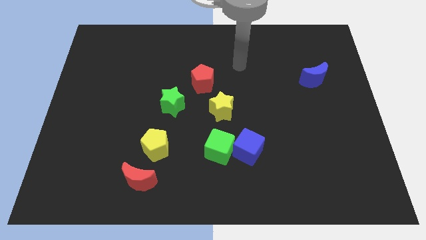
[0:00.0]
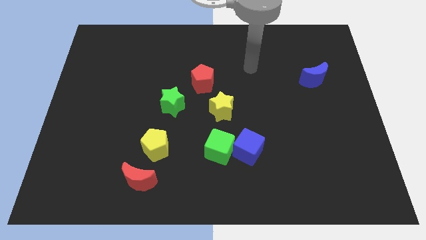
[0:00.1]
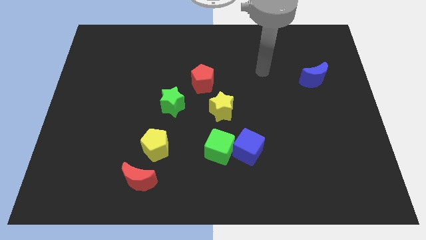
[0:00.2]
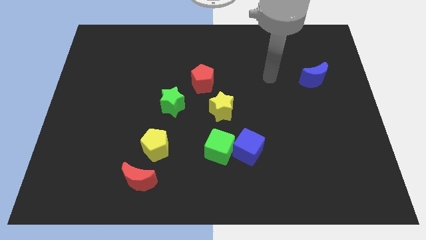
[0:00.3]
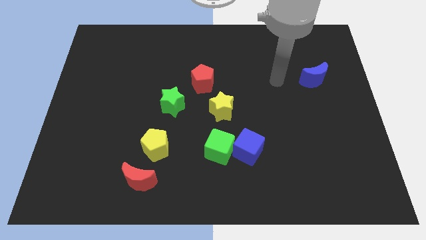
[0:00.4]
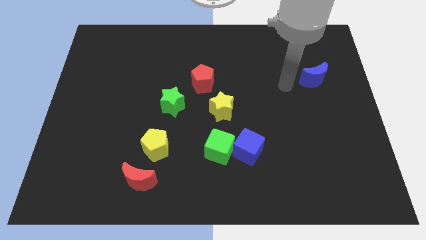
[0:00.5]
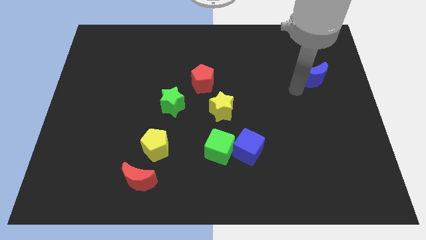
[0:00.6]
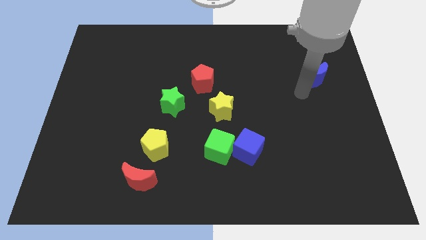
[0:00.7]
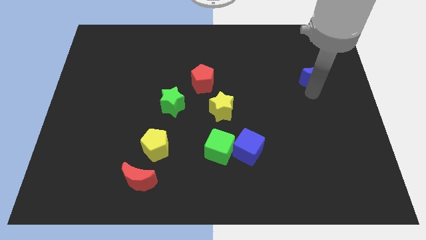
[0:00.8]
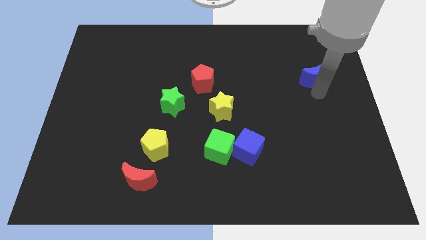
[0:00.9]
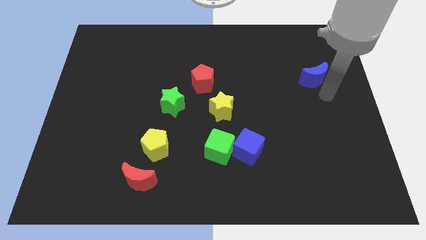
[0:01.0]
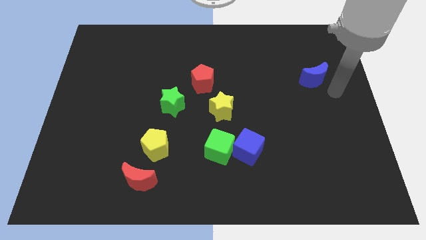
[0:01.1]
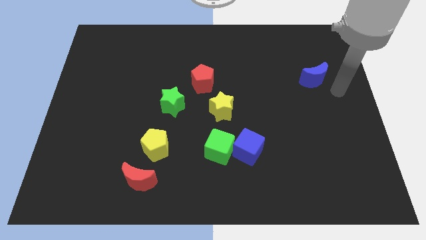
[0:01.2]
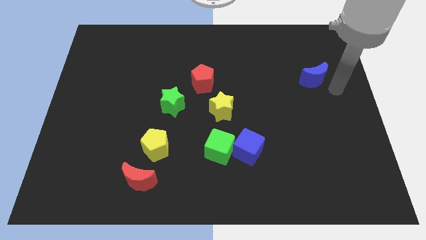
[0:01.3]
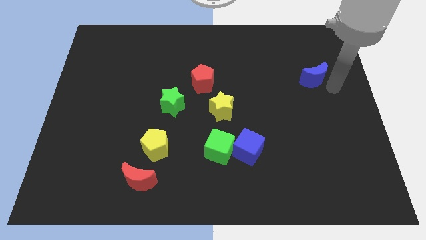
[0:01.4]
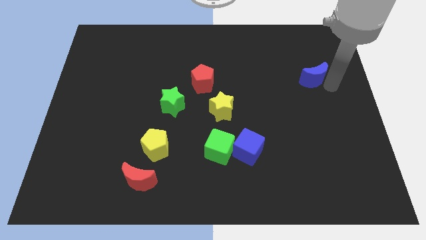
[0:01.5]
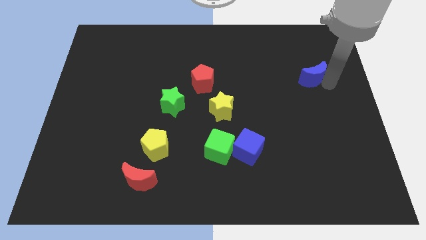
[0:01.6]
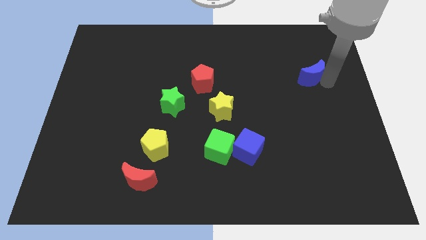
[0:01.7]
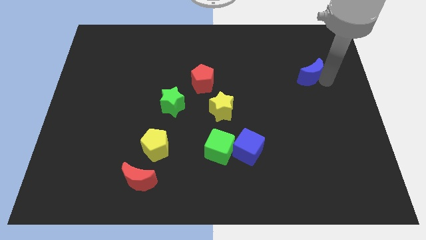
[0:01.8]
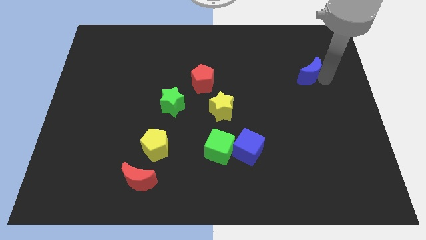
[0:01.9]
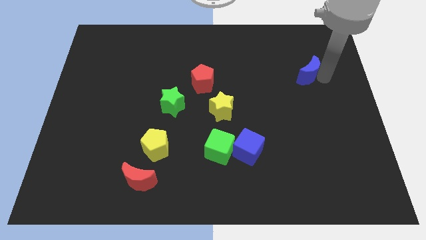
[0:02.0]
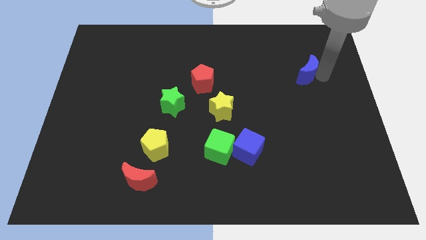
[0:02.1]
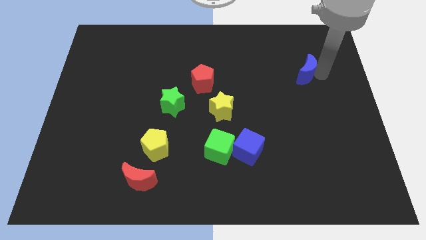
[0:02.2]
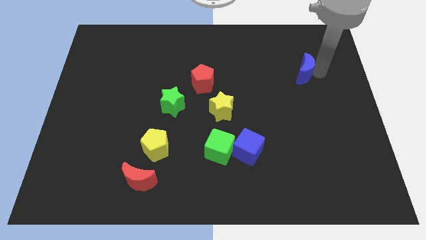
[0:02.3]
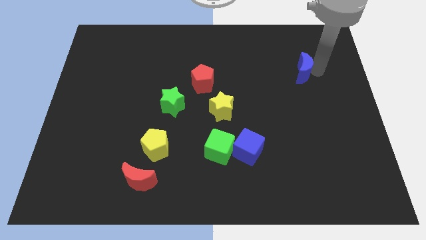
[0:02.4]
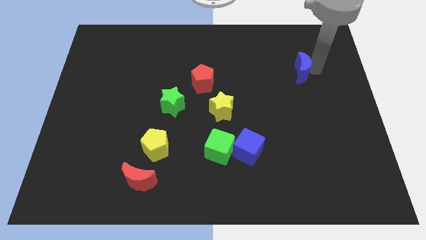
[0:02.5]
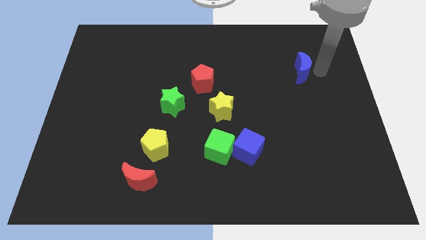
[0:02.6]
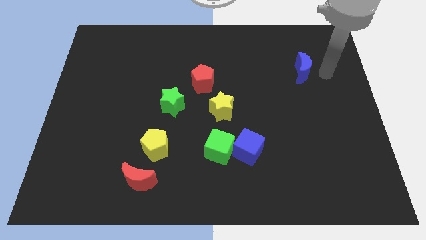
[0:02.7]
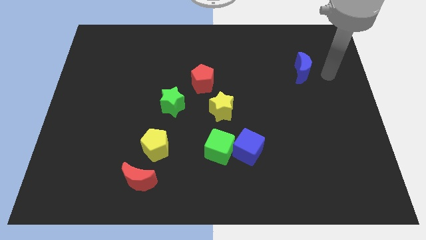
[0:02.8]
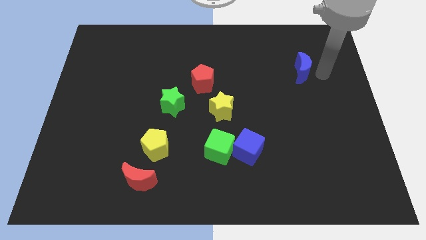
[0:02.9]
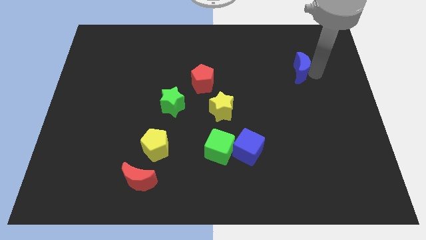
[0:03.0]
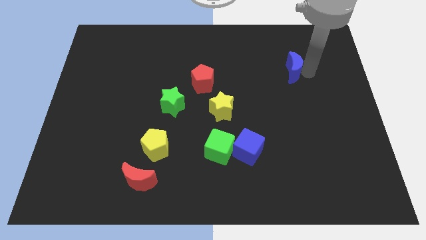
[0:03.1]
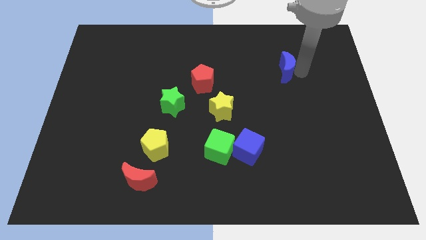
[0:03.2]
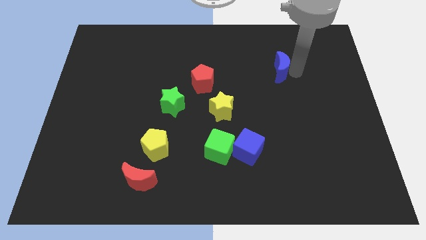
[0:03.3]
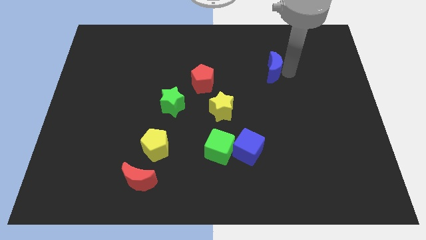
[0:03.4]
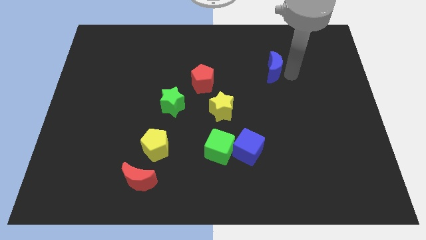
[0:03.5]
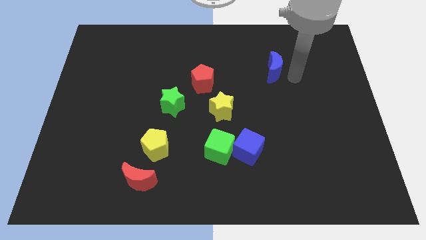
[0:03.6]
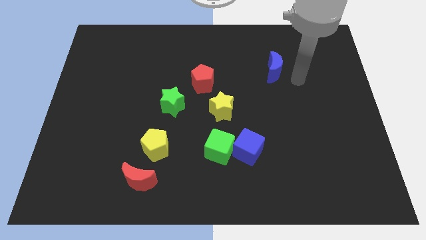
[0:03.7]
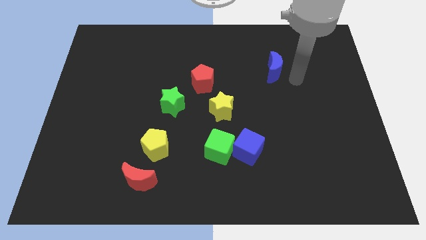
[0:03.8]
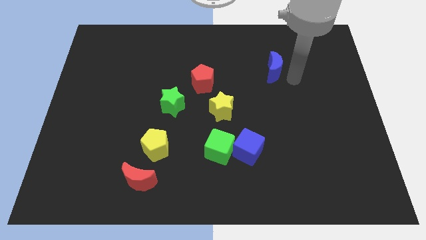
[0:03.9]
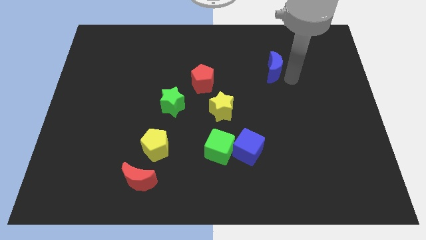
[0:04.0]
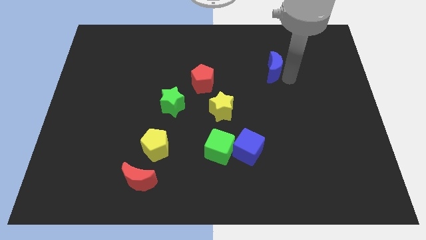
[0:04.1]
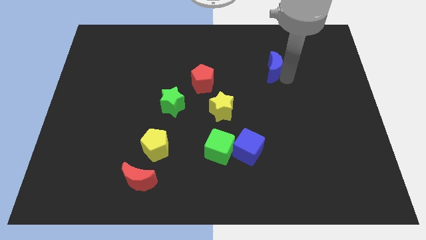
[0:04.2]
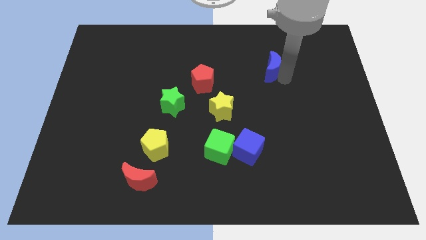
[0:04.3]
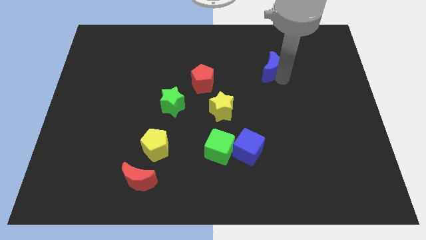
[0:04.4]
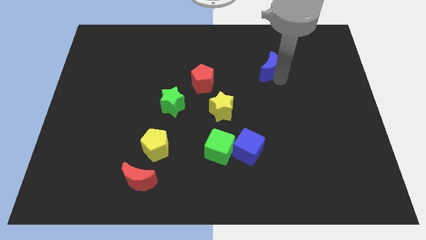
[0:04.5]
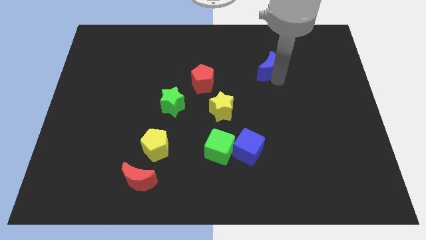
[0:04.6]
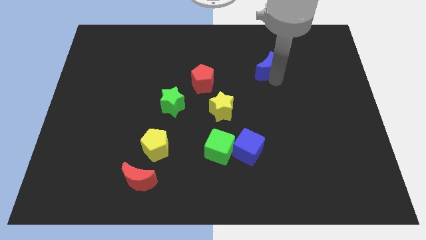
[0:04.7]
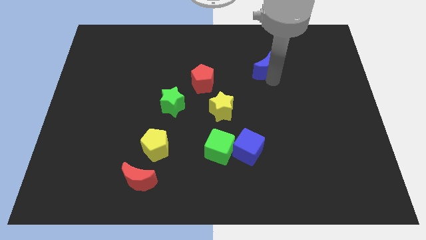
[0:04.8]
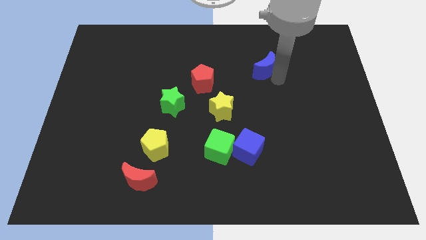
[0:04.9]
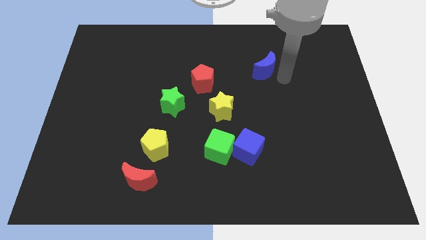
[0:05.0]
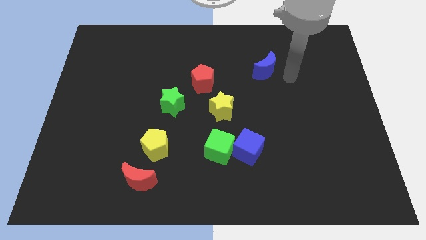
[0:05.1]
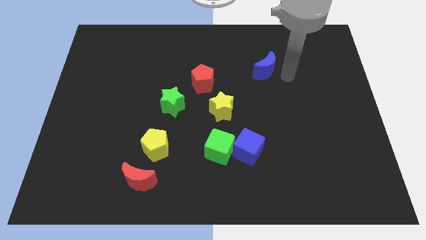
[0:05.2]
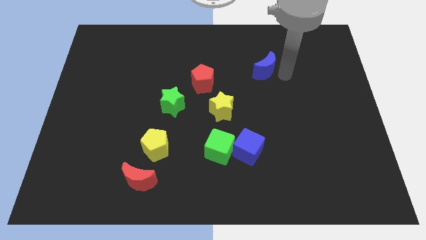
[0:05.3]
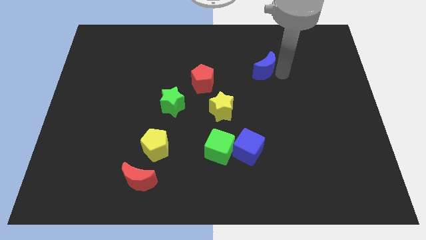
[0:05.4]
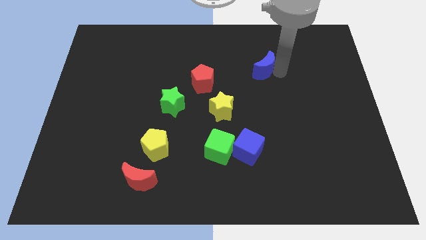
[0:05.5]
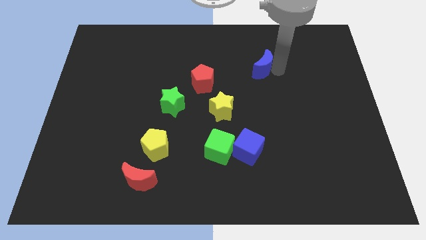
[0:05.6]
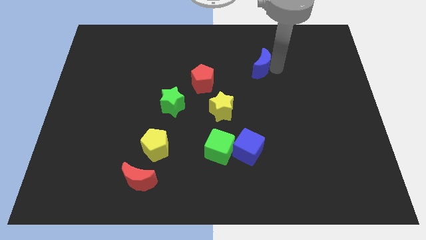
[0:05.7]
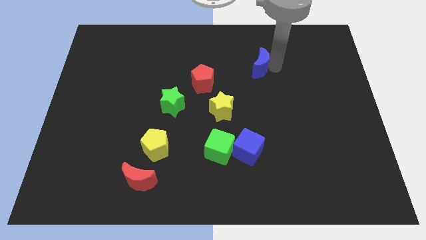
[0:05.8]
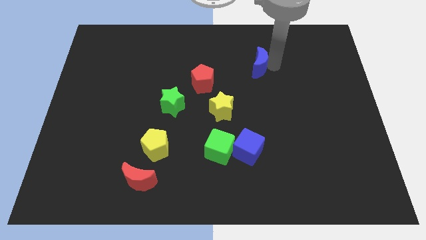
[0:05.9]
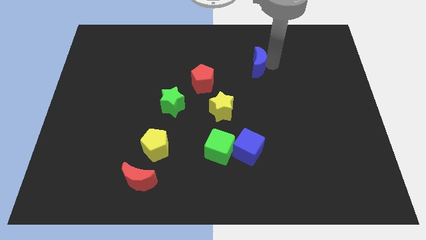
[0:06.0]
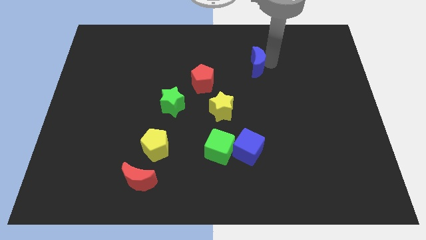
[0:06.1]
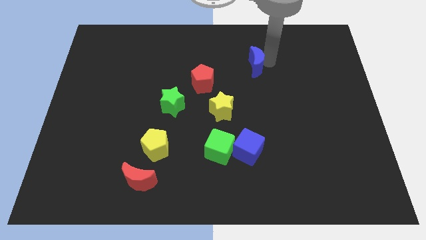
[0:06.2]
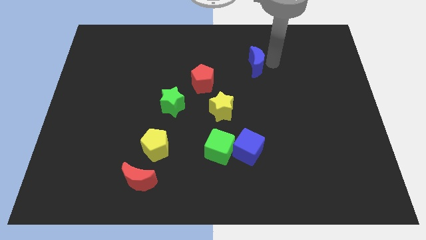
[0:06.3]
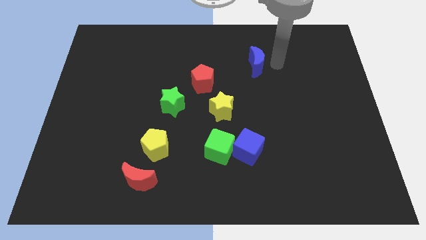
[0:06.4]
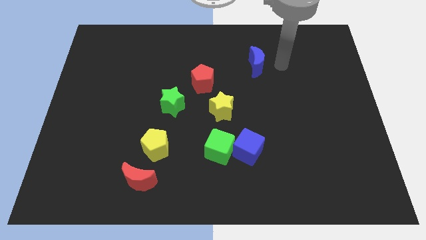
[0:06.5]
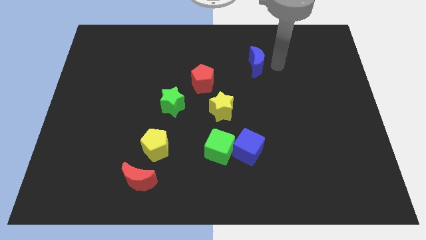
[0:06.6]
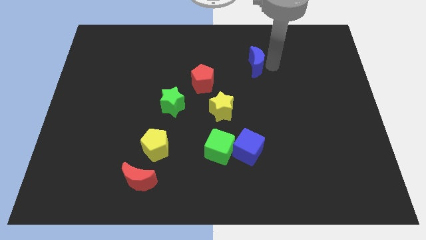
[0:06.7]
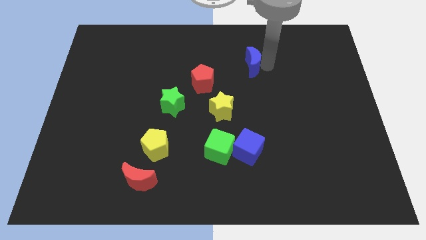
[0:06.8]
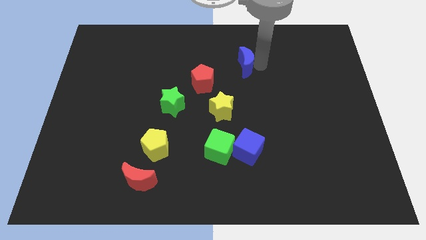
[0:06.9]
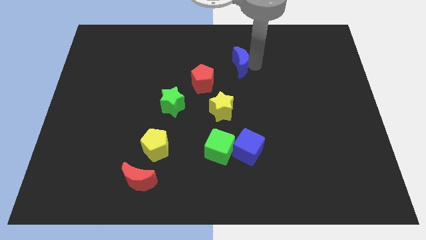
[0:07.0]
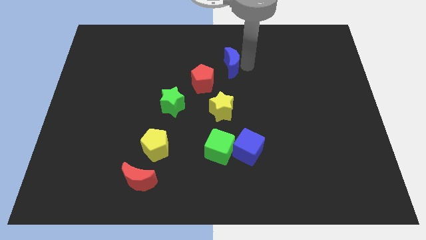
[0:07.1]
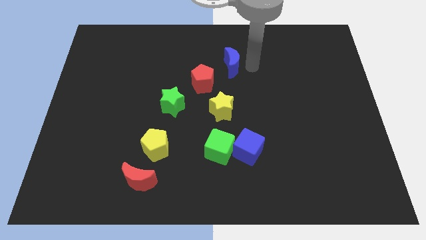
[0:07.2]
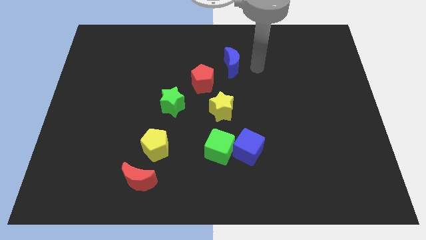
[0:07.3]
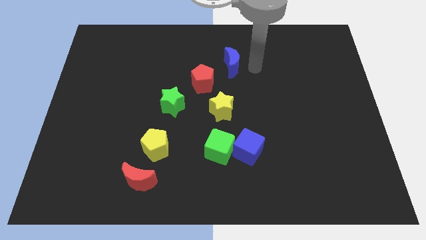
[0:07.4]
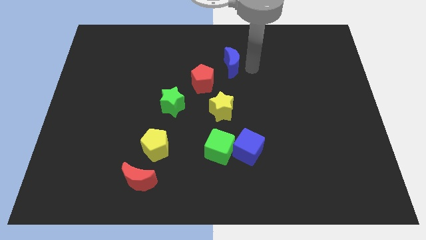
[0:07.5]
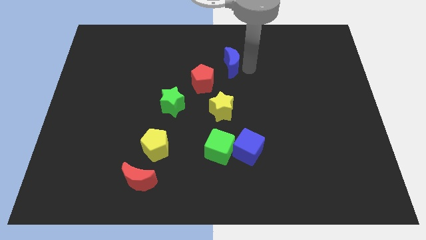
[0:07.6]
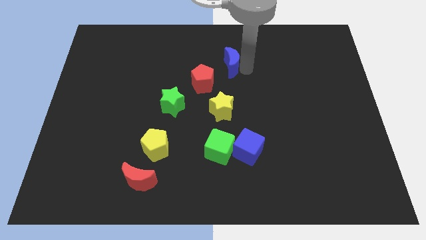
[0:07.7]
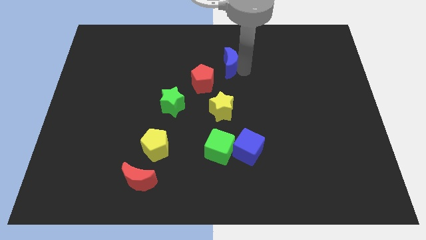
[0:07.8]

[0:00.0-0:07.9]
move the blue moon left

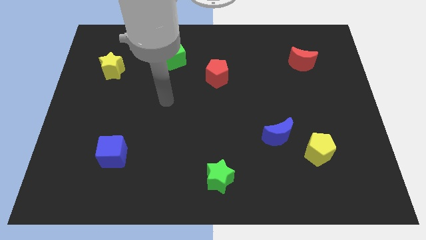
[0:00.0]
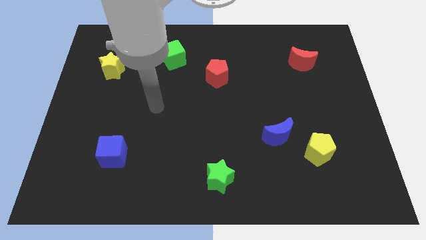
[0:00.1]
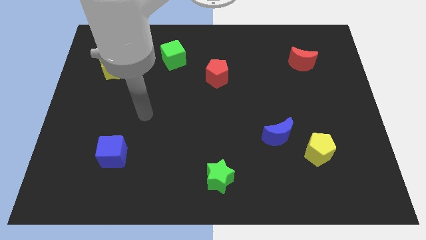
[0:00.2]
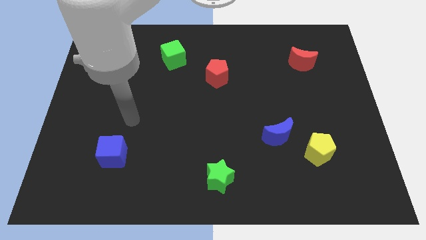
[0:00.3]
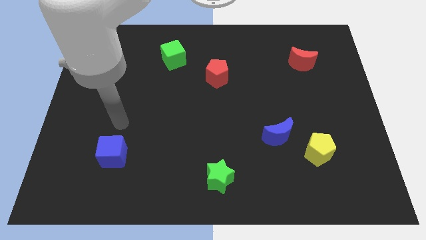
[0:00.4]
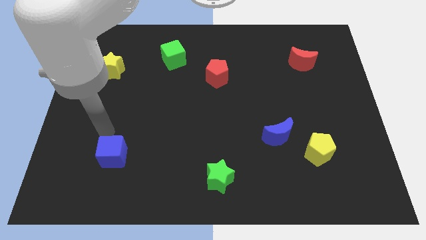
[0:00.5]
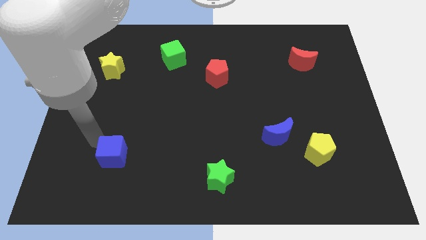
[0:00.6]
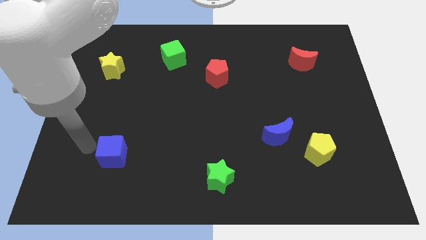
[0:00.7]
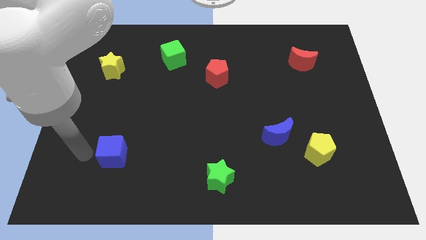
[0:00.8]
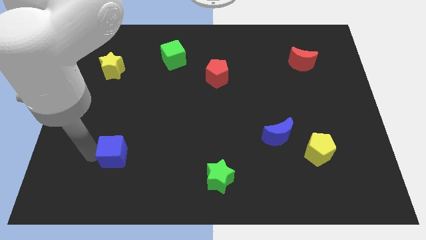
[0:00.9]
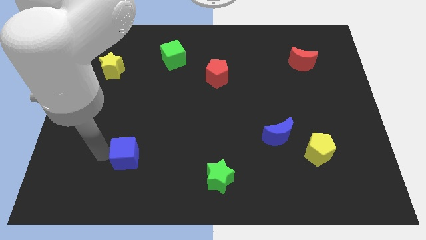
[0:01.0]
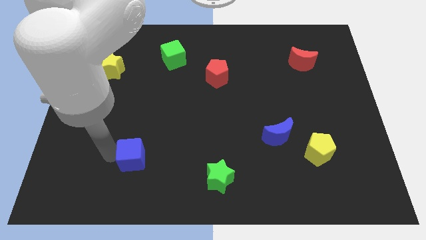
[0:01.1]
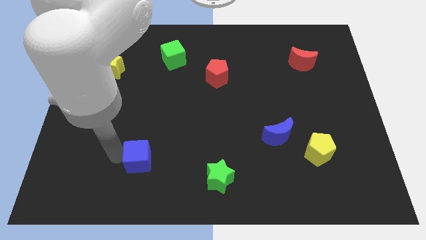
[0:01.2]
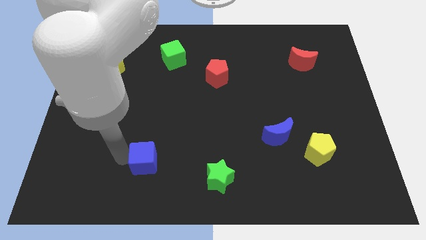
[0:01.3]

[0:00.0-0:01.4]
slightly slide the blue cube to the right
